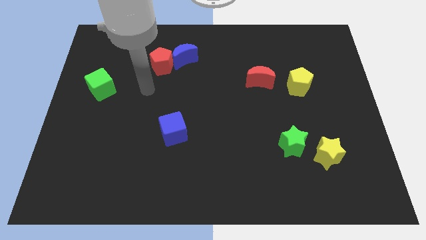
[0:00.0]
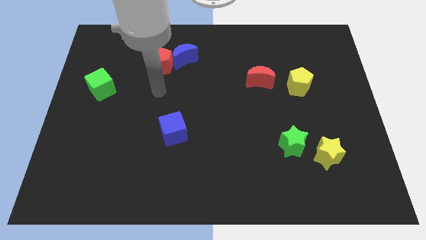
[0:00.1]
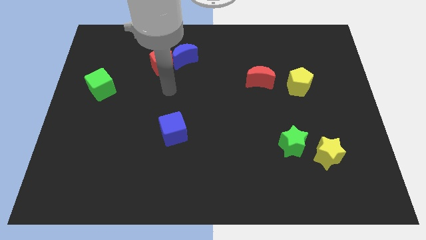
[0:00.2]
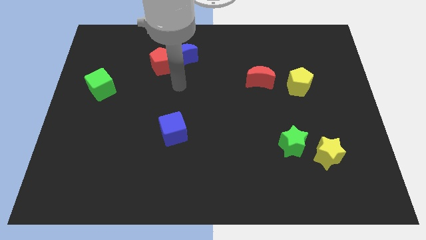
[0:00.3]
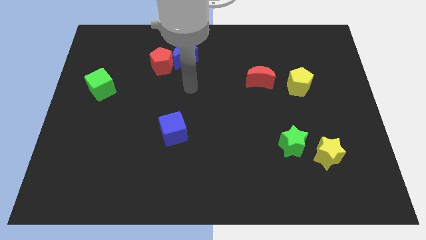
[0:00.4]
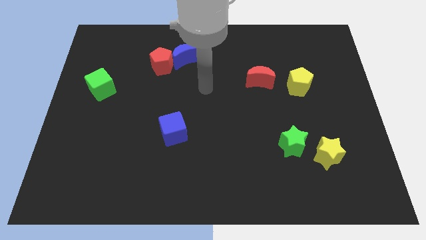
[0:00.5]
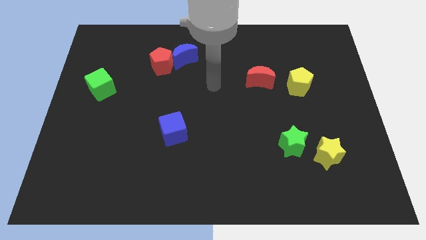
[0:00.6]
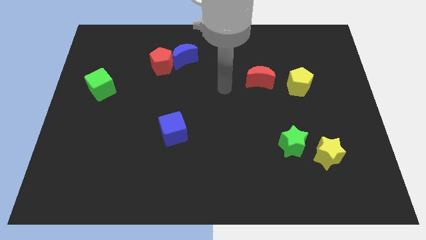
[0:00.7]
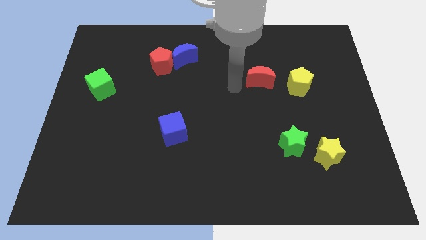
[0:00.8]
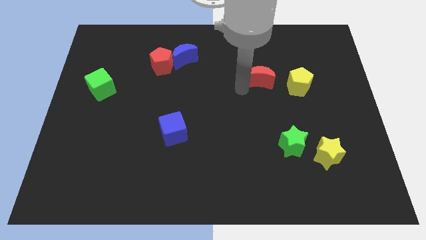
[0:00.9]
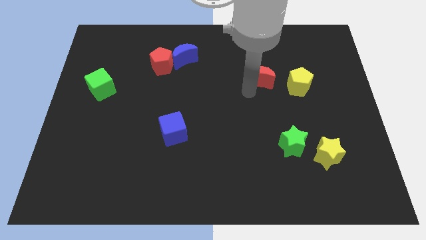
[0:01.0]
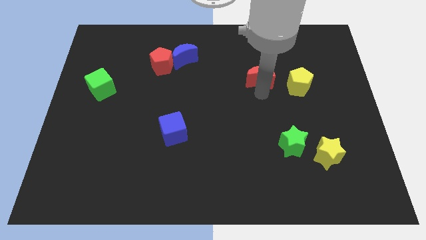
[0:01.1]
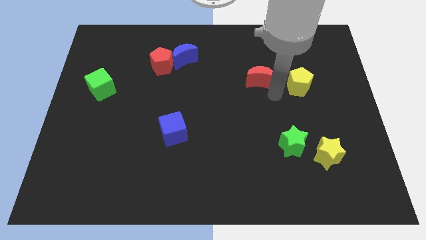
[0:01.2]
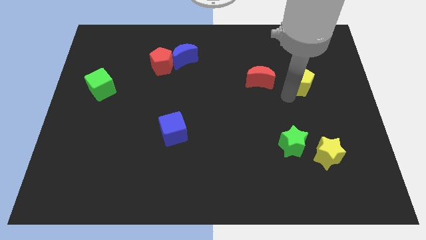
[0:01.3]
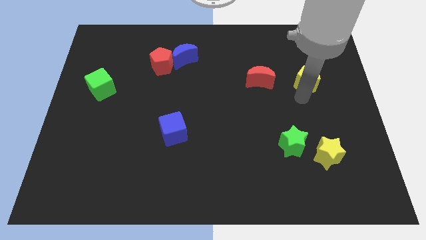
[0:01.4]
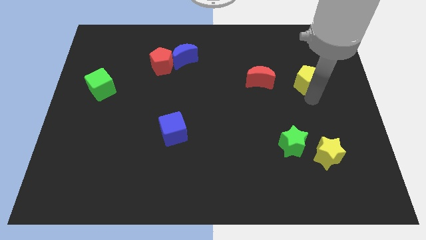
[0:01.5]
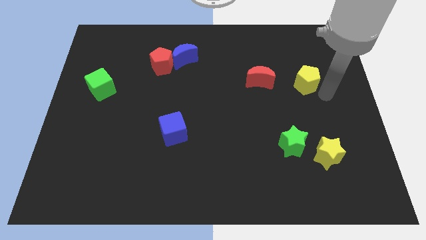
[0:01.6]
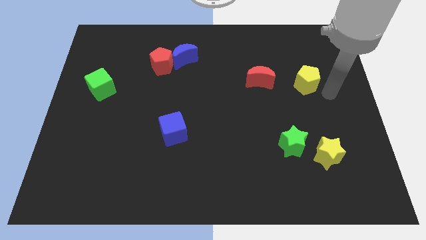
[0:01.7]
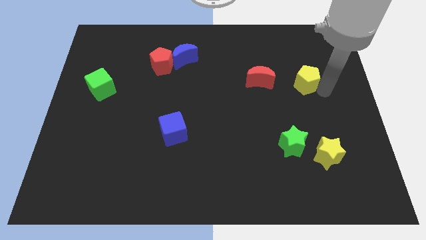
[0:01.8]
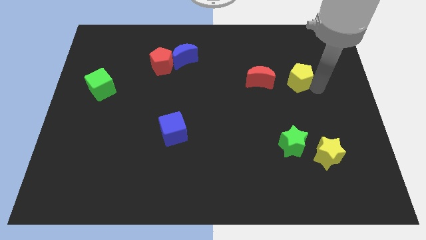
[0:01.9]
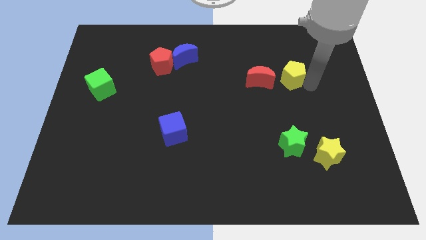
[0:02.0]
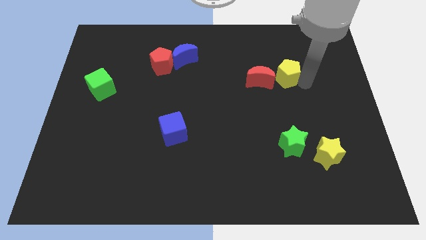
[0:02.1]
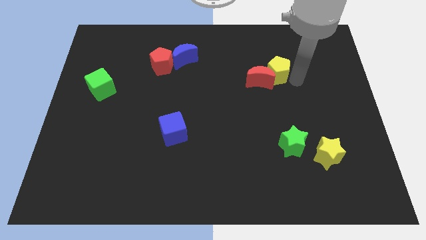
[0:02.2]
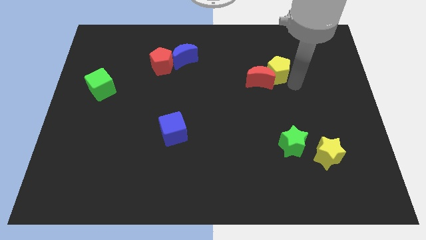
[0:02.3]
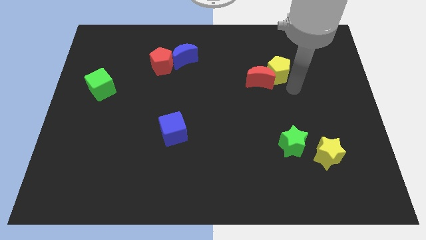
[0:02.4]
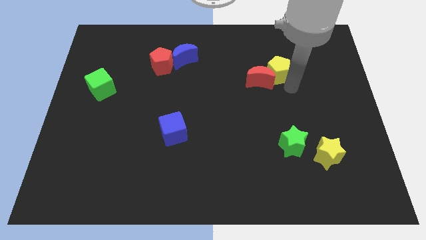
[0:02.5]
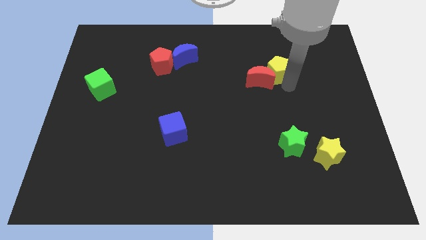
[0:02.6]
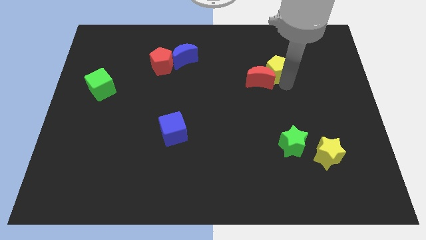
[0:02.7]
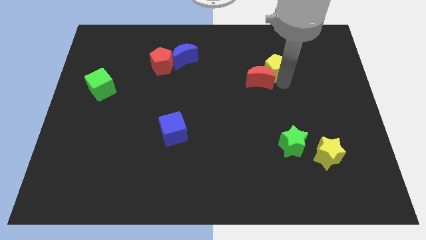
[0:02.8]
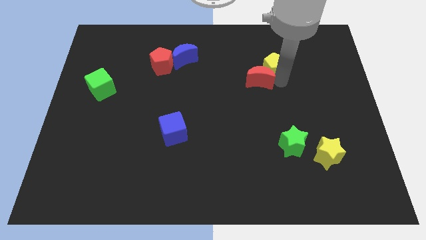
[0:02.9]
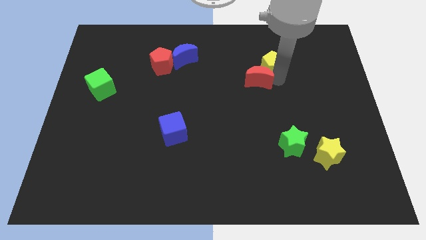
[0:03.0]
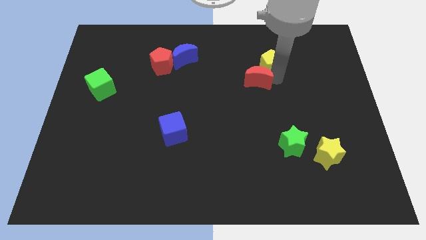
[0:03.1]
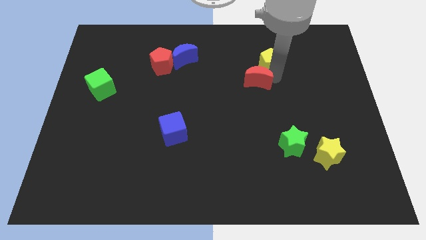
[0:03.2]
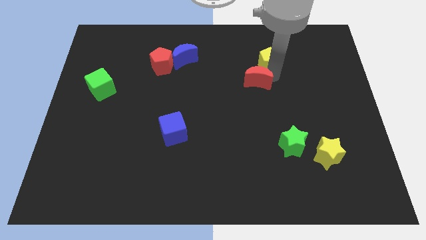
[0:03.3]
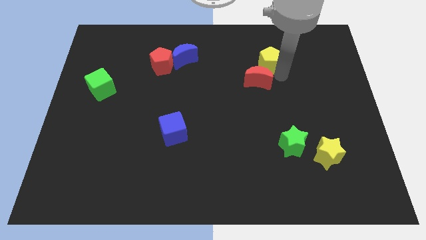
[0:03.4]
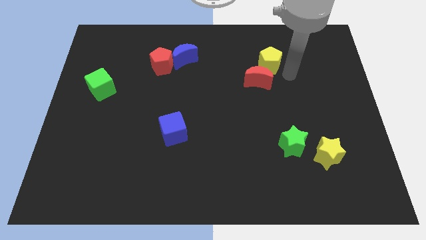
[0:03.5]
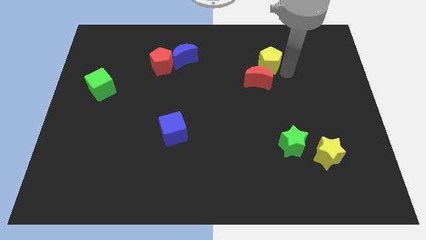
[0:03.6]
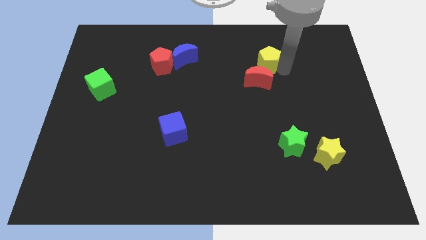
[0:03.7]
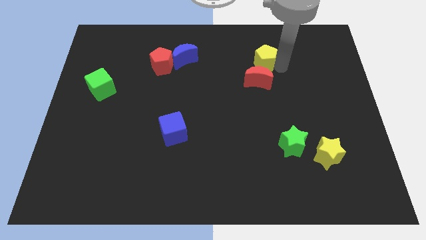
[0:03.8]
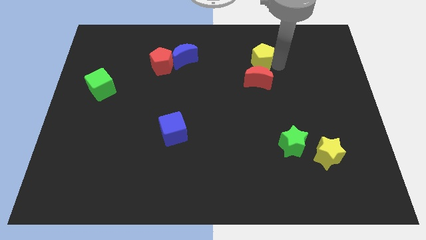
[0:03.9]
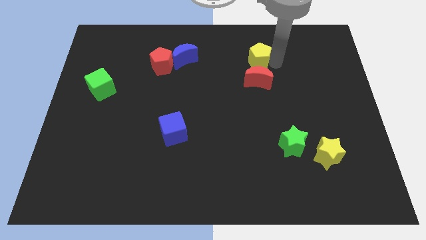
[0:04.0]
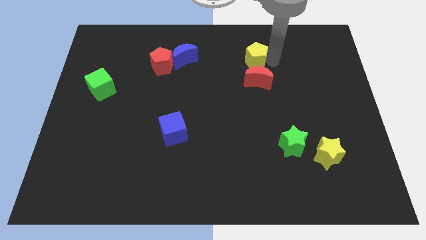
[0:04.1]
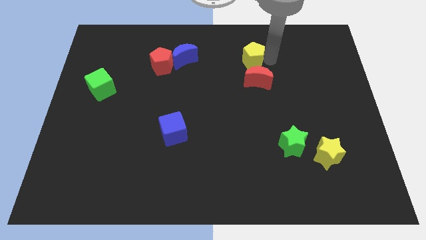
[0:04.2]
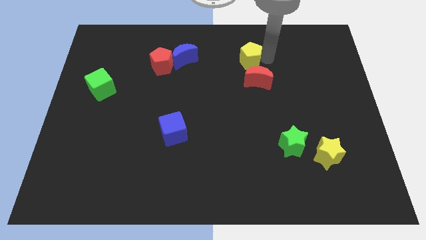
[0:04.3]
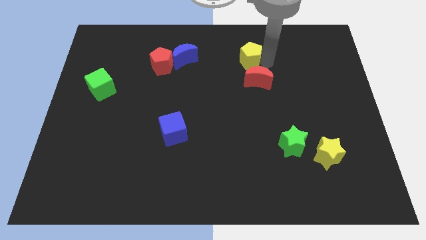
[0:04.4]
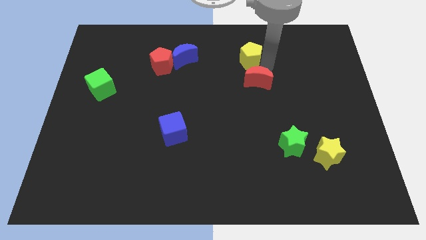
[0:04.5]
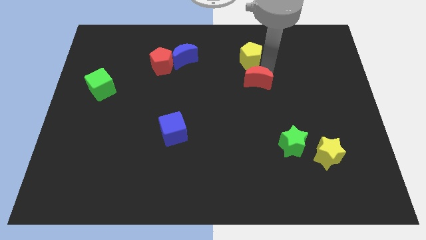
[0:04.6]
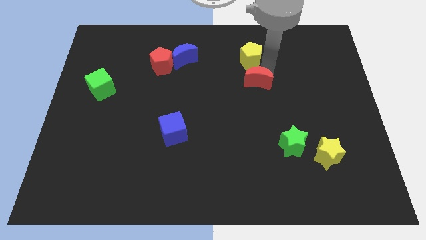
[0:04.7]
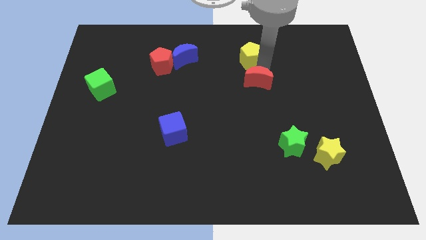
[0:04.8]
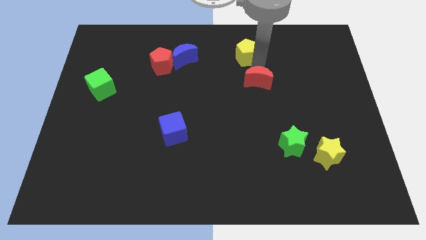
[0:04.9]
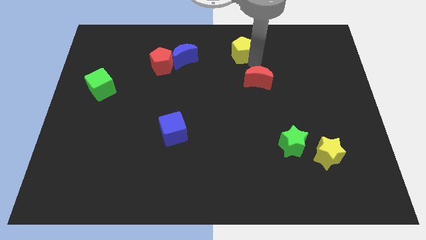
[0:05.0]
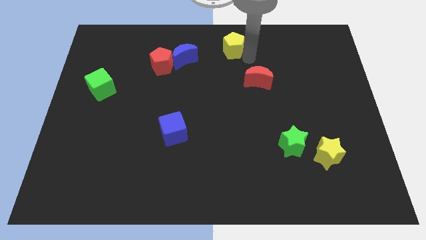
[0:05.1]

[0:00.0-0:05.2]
move the yellow pentagon to the top side

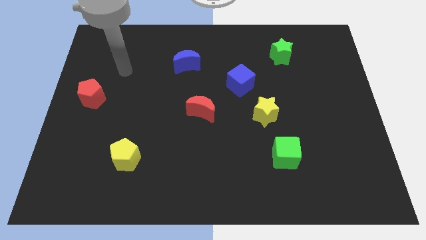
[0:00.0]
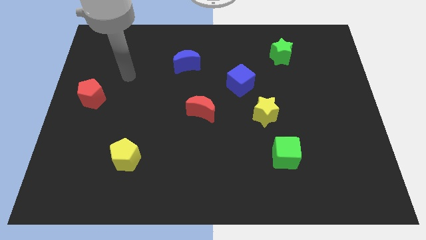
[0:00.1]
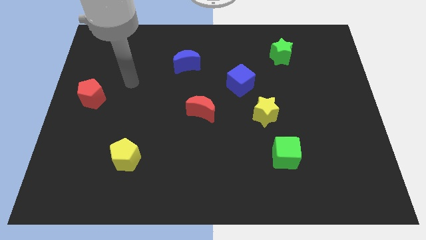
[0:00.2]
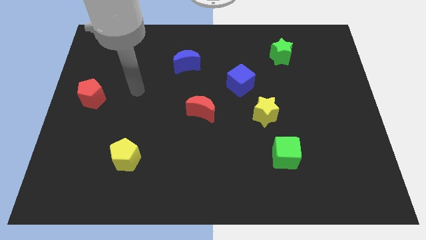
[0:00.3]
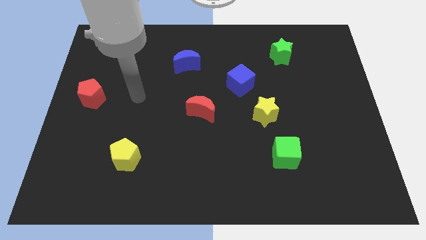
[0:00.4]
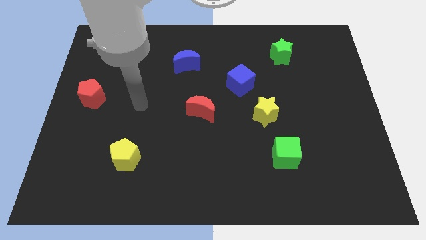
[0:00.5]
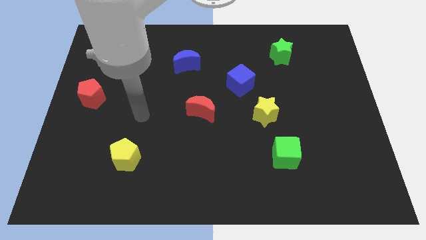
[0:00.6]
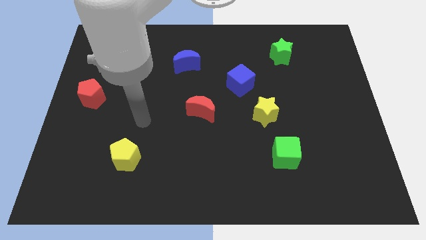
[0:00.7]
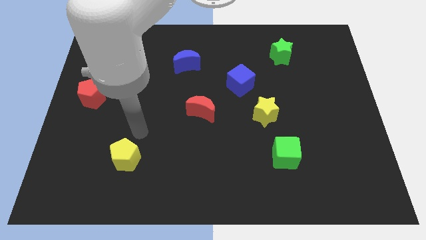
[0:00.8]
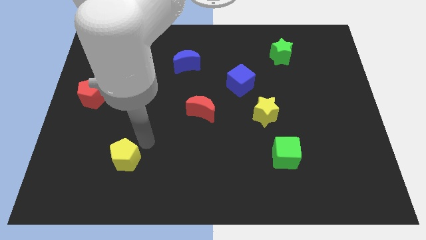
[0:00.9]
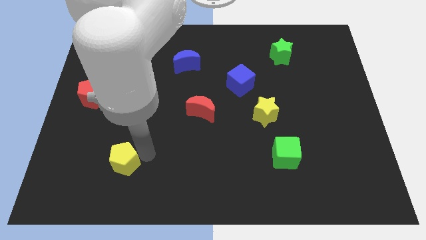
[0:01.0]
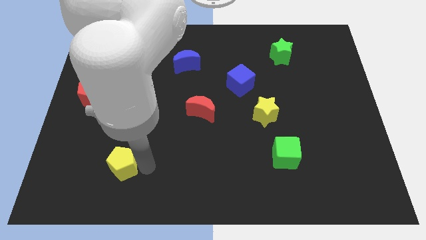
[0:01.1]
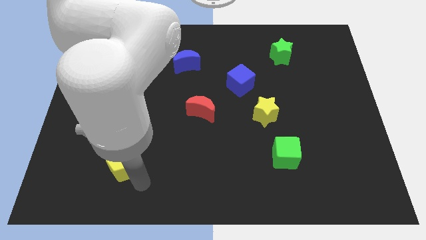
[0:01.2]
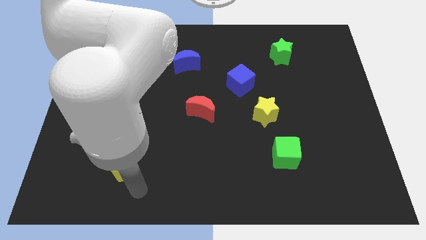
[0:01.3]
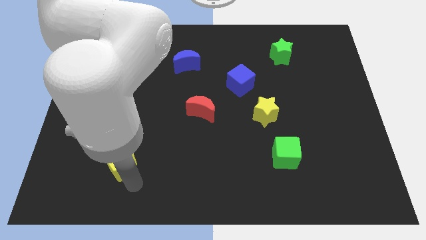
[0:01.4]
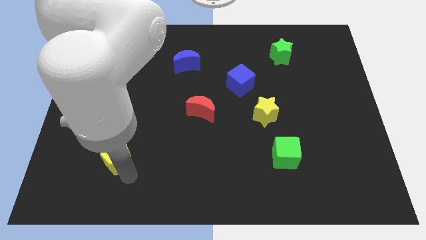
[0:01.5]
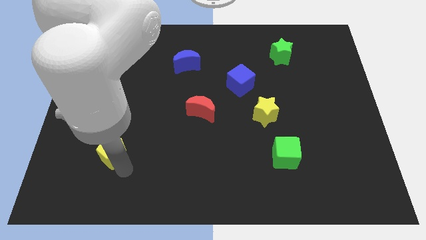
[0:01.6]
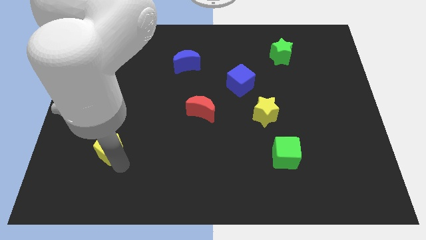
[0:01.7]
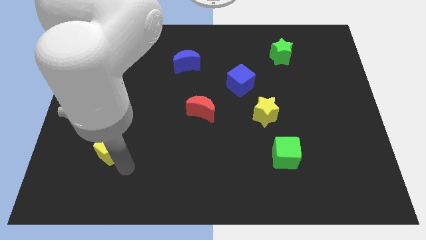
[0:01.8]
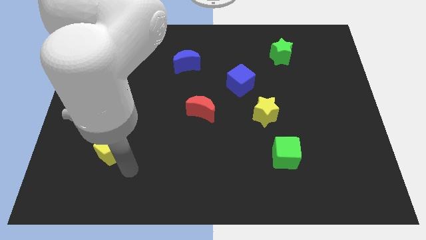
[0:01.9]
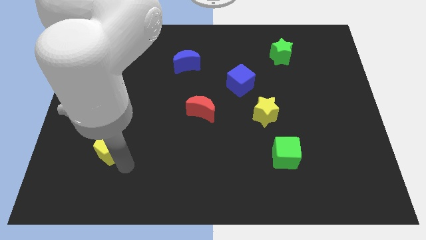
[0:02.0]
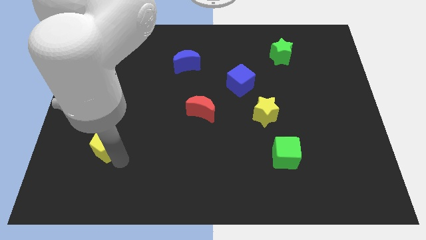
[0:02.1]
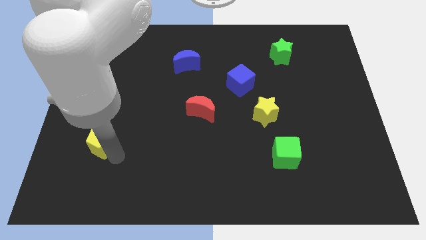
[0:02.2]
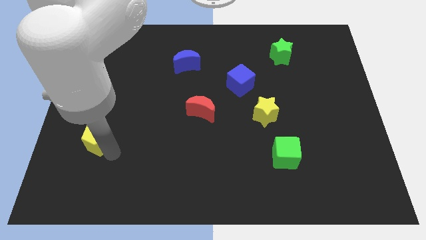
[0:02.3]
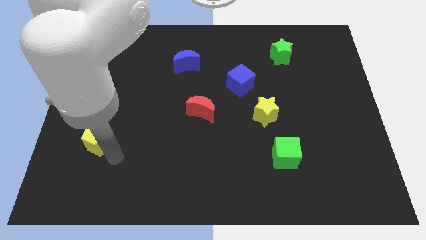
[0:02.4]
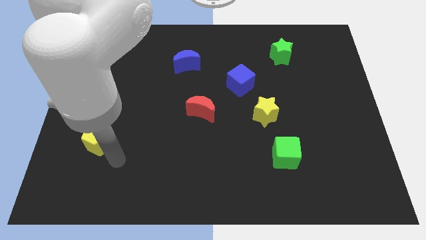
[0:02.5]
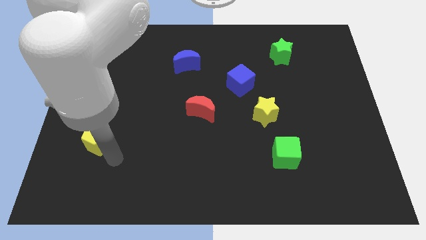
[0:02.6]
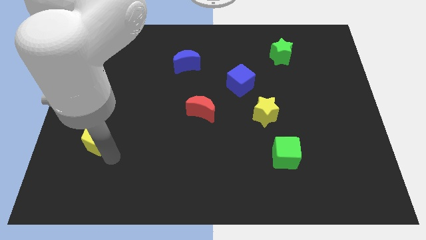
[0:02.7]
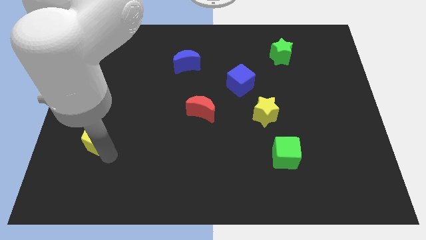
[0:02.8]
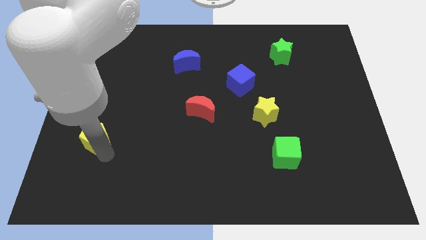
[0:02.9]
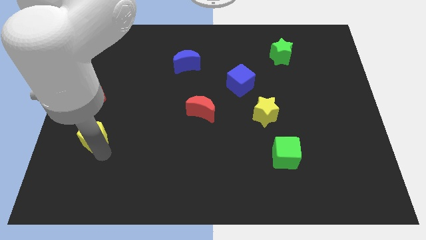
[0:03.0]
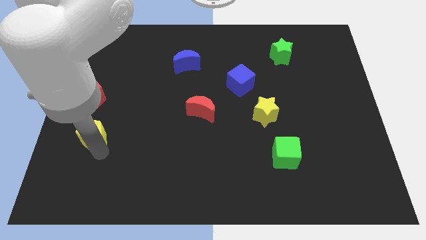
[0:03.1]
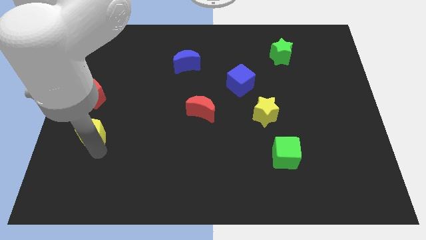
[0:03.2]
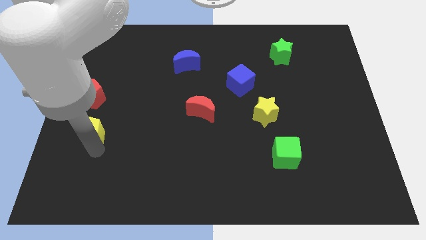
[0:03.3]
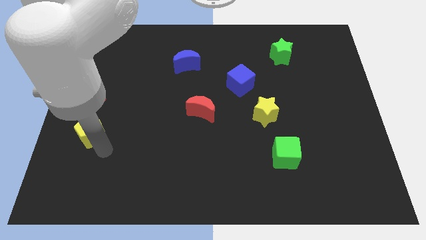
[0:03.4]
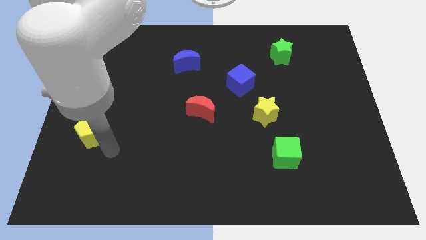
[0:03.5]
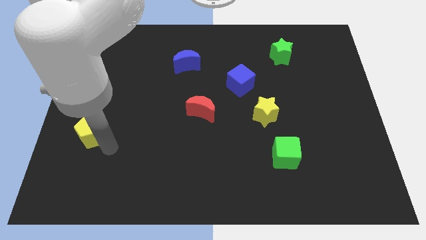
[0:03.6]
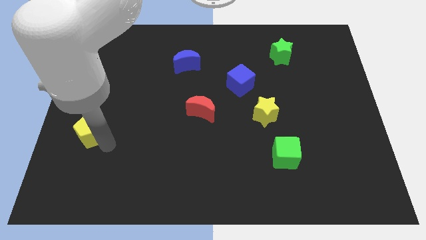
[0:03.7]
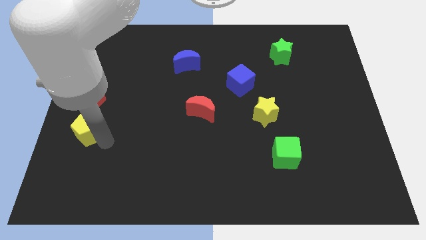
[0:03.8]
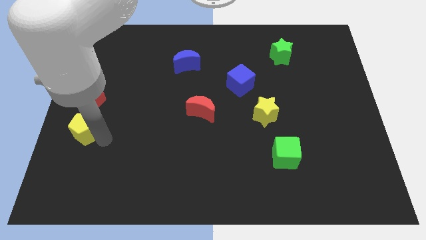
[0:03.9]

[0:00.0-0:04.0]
move the yellow pentagon to the left side of the board
